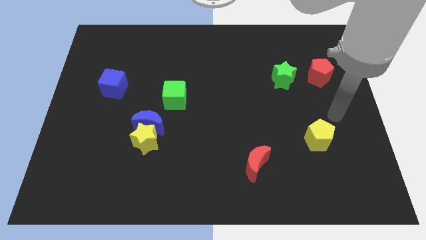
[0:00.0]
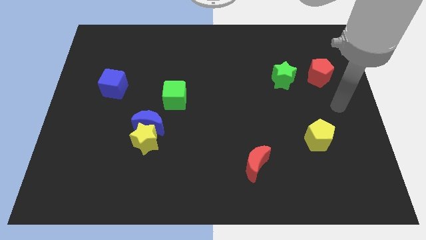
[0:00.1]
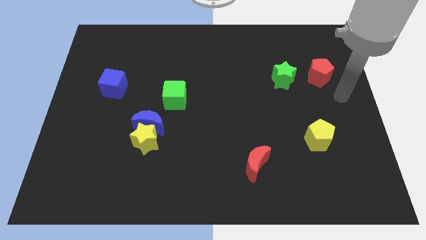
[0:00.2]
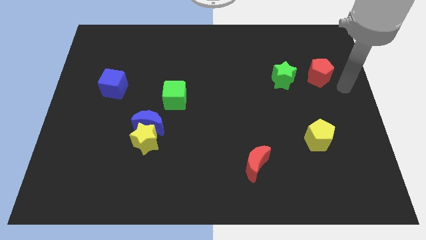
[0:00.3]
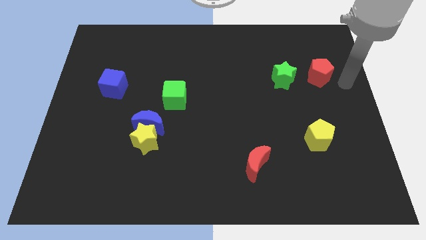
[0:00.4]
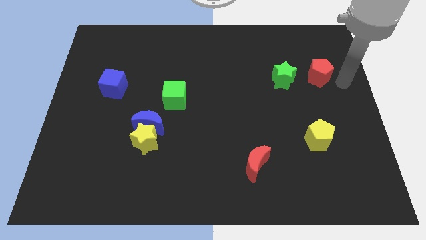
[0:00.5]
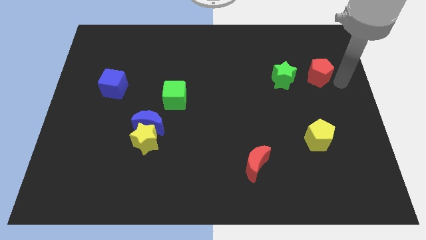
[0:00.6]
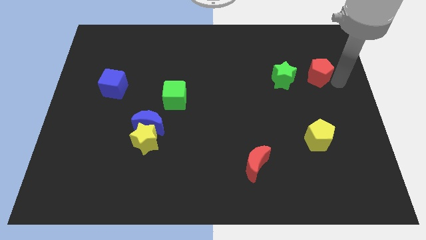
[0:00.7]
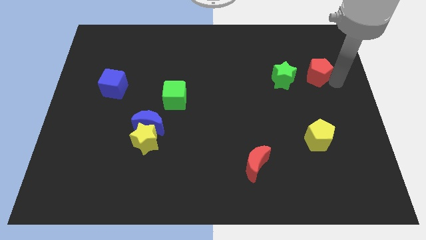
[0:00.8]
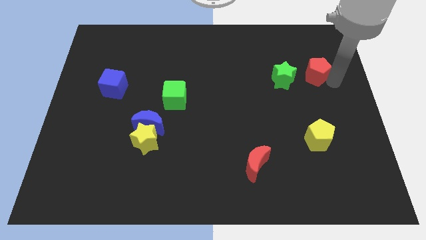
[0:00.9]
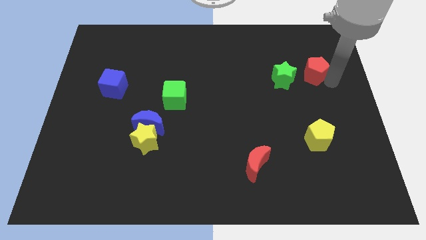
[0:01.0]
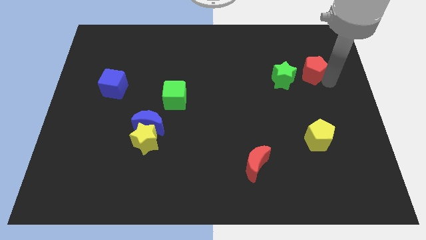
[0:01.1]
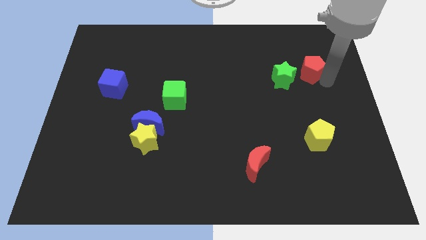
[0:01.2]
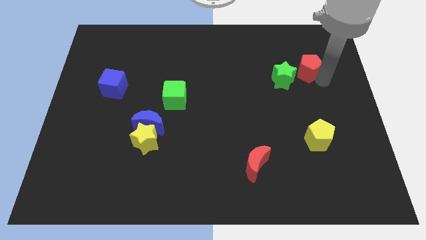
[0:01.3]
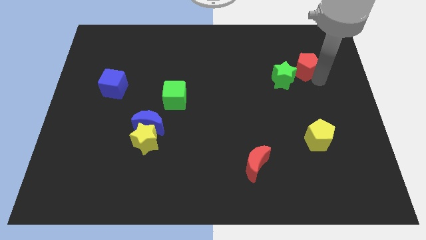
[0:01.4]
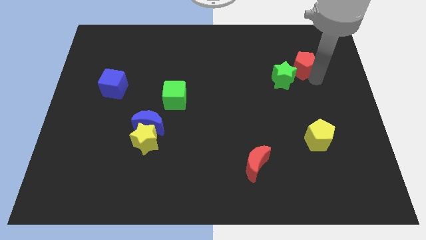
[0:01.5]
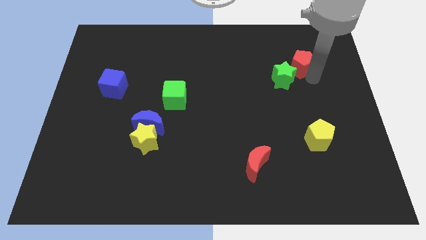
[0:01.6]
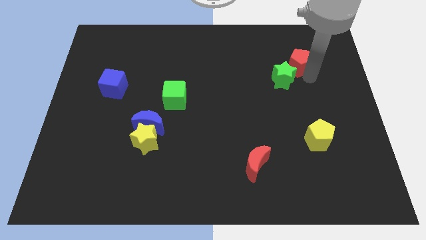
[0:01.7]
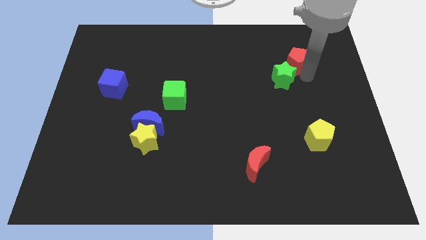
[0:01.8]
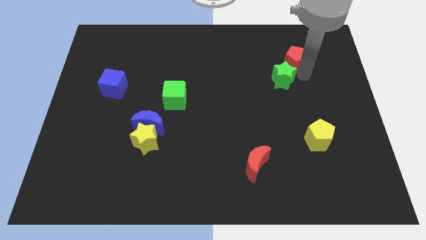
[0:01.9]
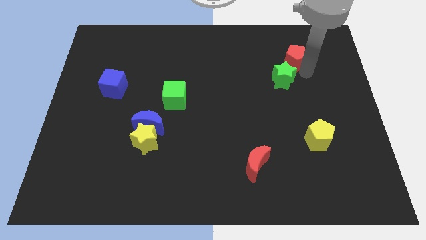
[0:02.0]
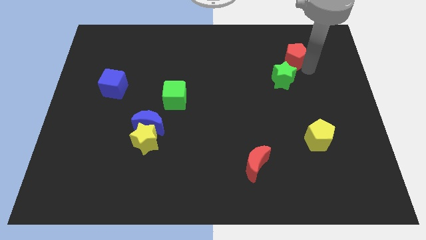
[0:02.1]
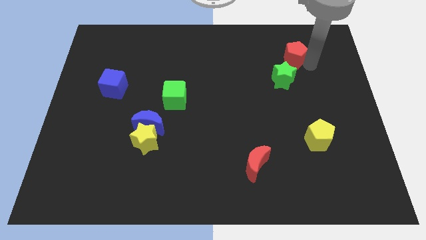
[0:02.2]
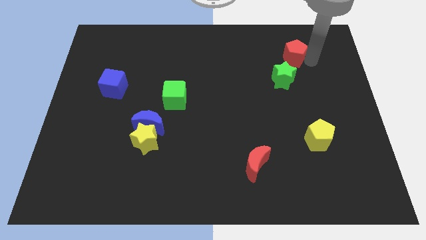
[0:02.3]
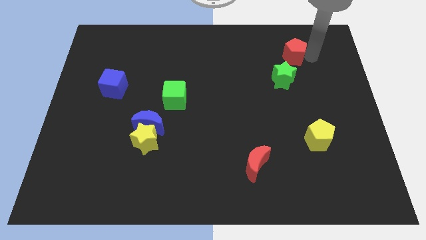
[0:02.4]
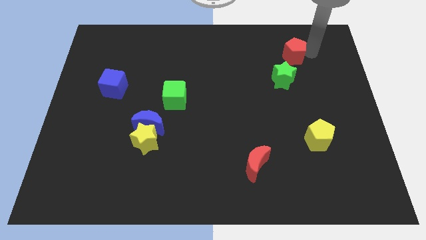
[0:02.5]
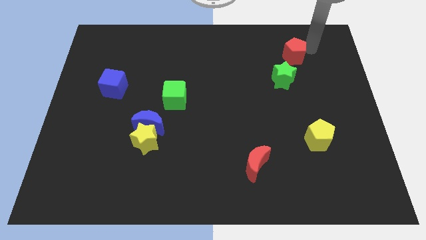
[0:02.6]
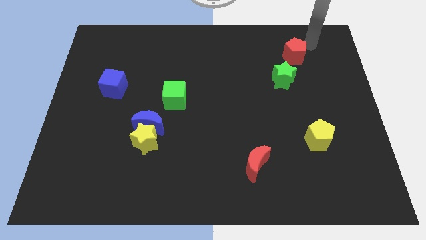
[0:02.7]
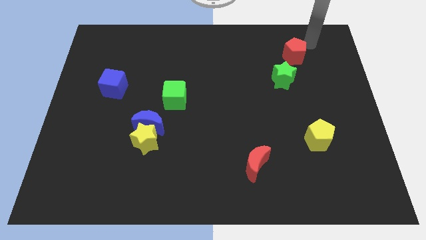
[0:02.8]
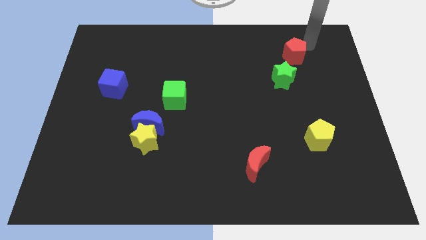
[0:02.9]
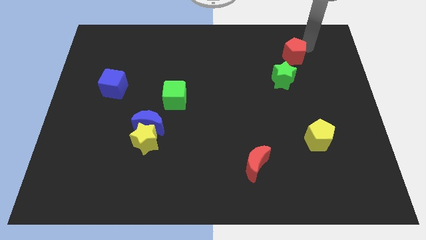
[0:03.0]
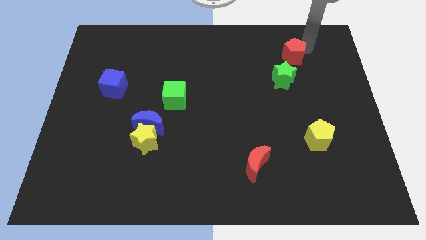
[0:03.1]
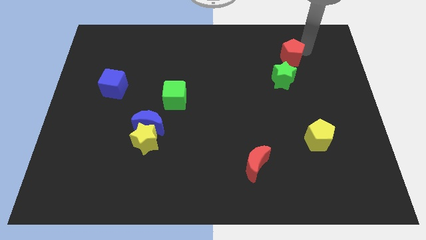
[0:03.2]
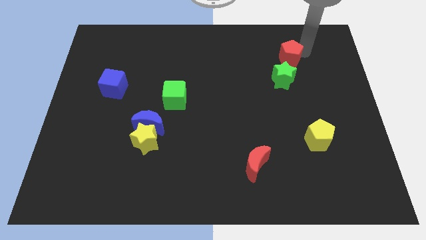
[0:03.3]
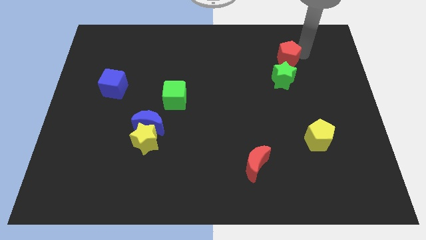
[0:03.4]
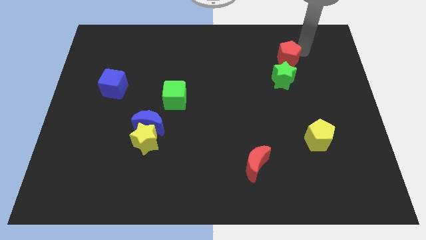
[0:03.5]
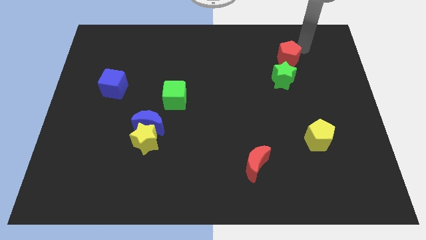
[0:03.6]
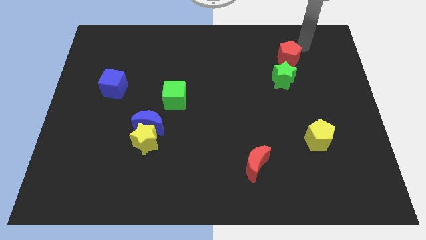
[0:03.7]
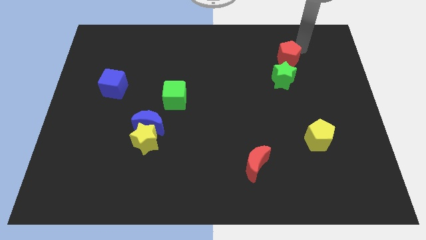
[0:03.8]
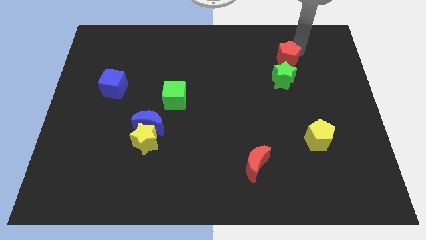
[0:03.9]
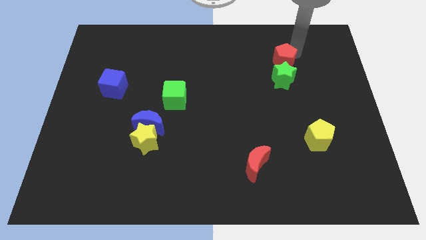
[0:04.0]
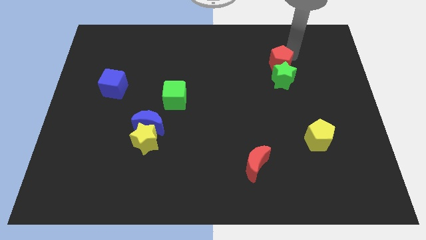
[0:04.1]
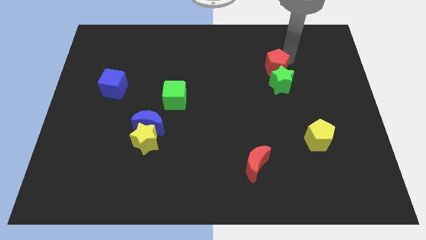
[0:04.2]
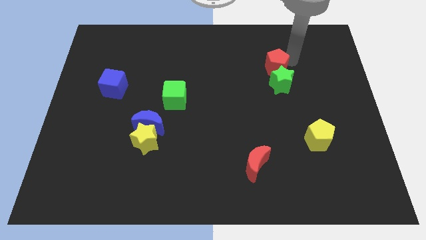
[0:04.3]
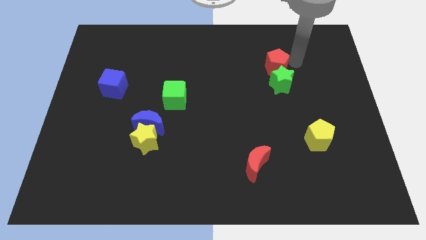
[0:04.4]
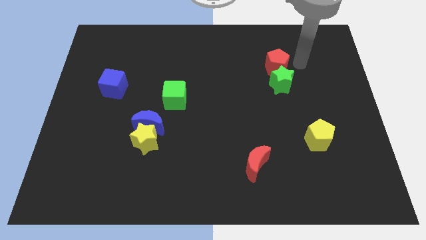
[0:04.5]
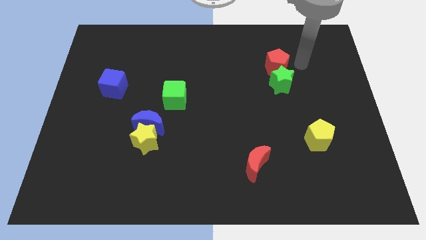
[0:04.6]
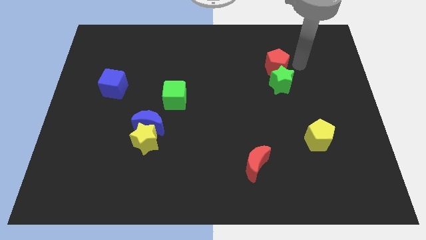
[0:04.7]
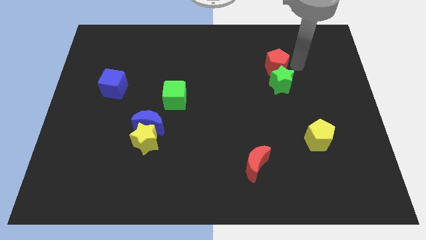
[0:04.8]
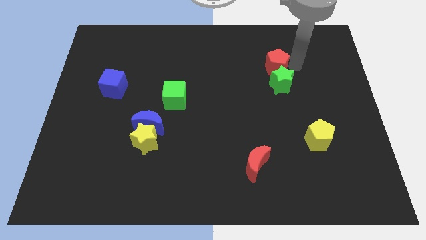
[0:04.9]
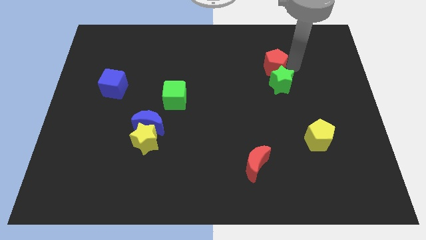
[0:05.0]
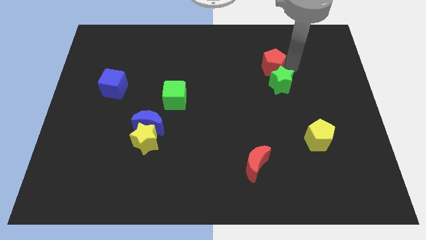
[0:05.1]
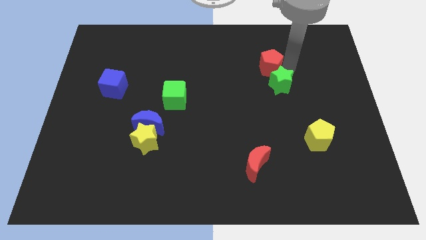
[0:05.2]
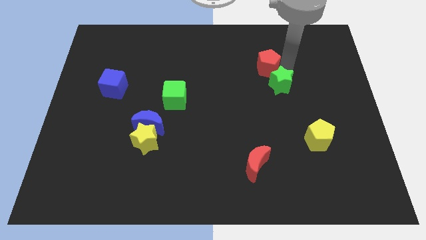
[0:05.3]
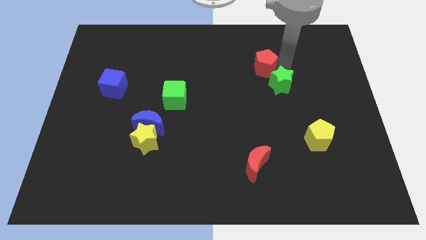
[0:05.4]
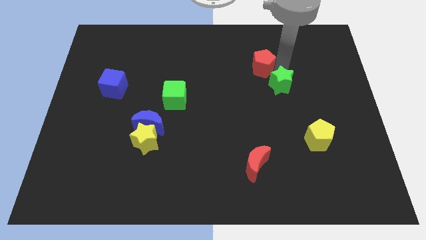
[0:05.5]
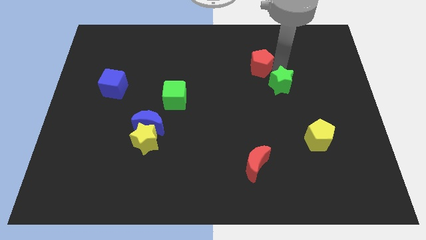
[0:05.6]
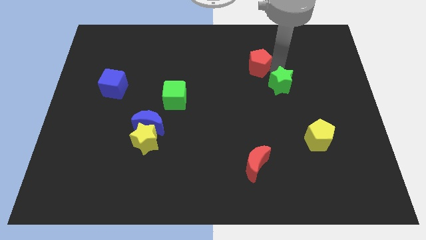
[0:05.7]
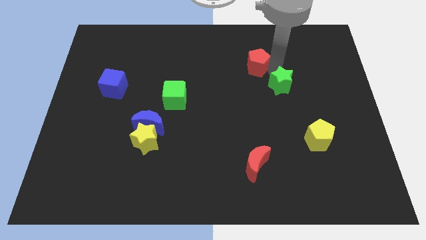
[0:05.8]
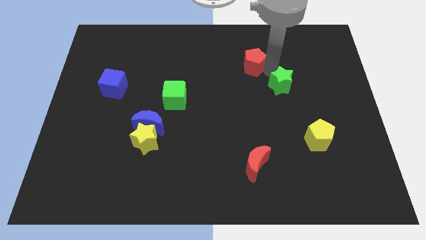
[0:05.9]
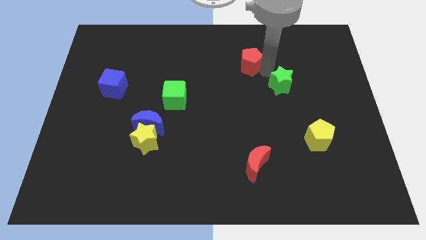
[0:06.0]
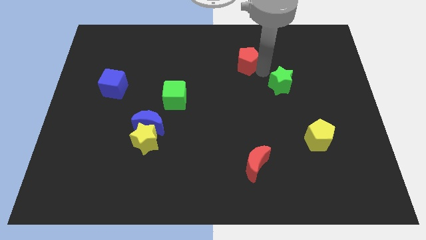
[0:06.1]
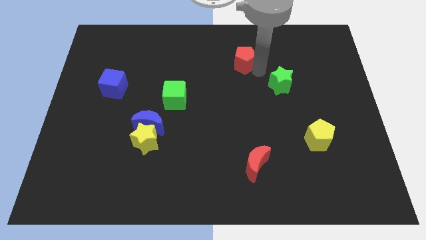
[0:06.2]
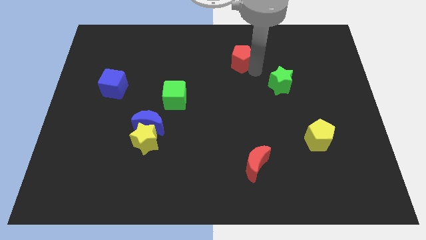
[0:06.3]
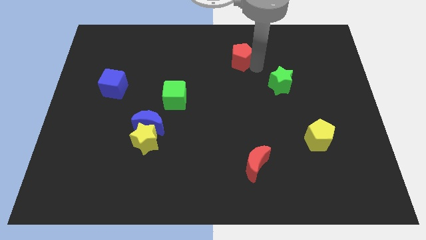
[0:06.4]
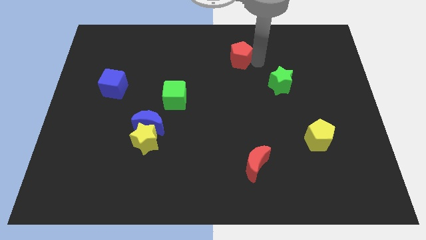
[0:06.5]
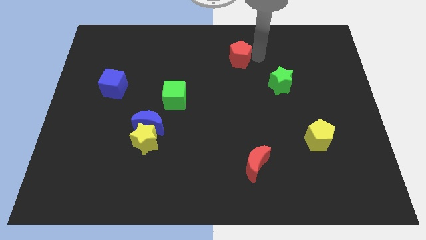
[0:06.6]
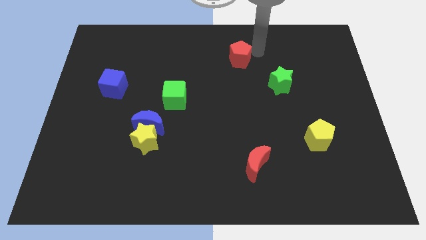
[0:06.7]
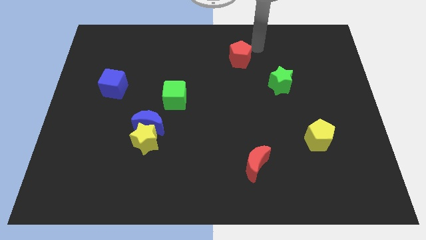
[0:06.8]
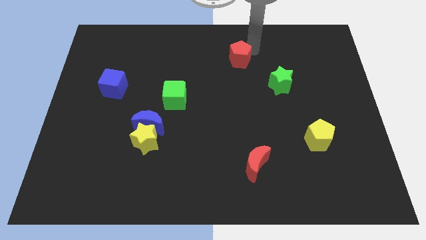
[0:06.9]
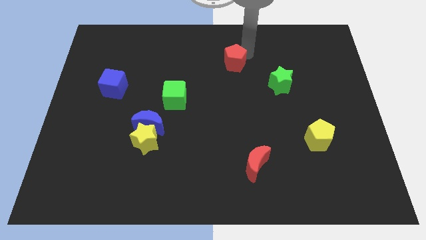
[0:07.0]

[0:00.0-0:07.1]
push the red pentagon left

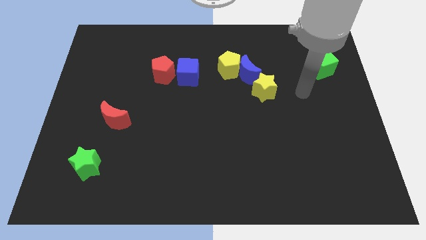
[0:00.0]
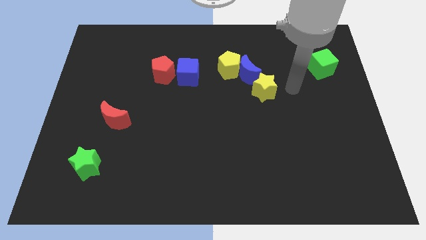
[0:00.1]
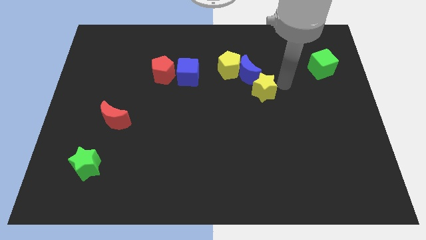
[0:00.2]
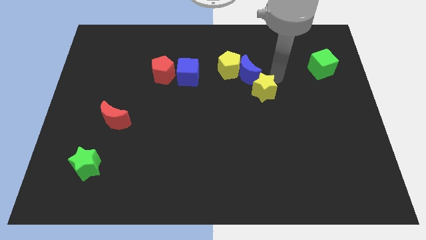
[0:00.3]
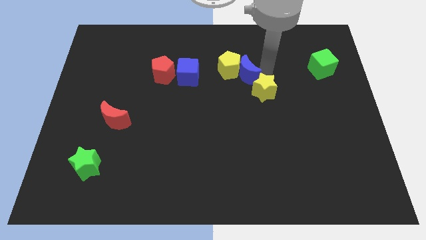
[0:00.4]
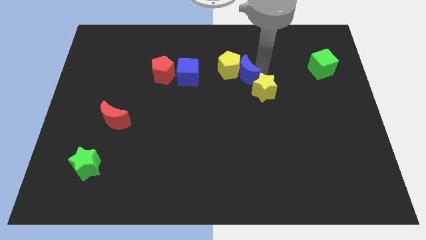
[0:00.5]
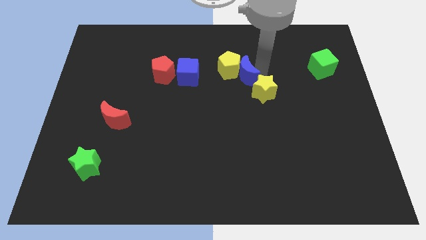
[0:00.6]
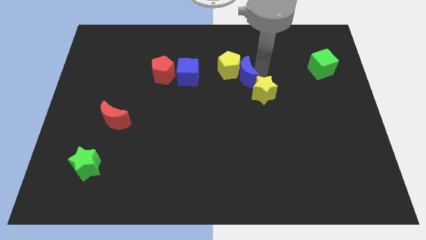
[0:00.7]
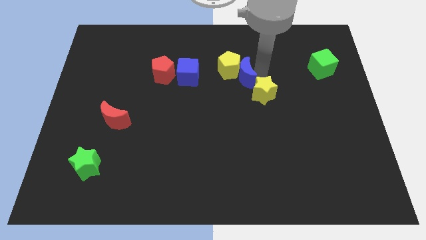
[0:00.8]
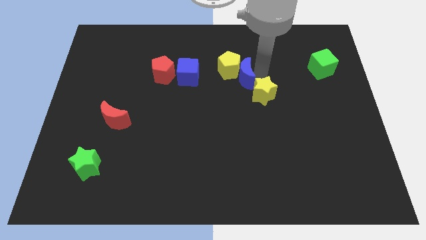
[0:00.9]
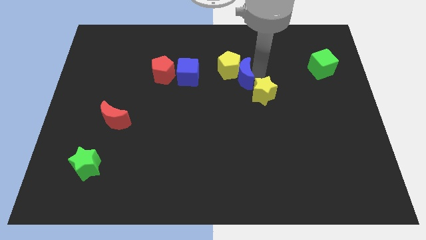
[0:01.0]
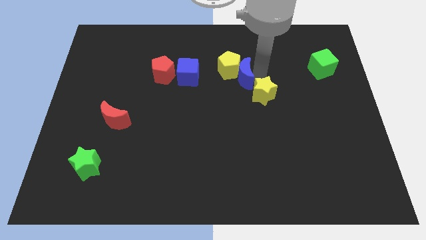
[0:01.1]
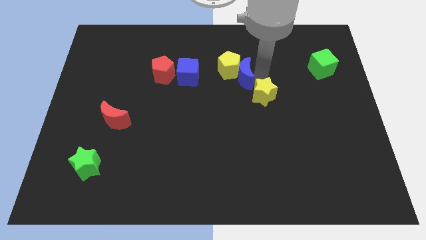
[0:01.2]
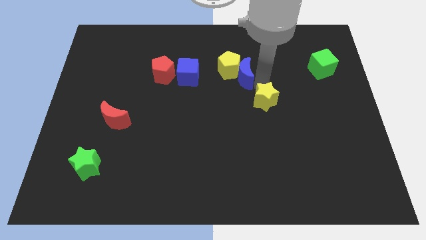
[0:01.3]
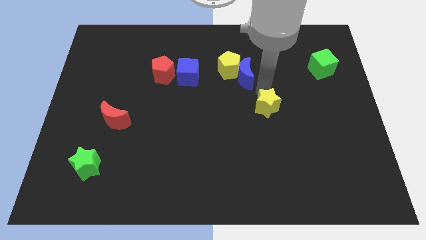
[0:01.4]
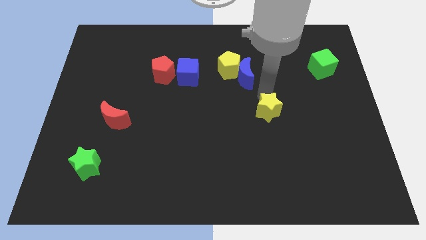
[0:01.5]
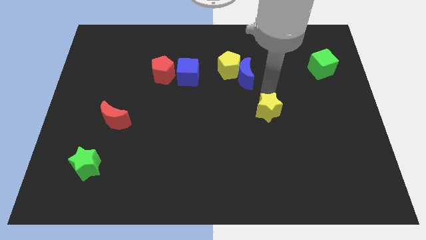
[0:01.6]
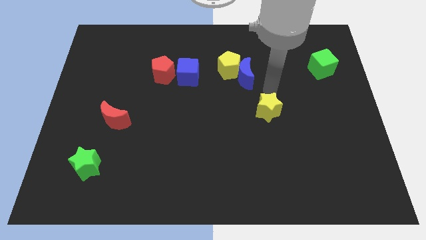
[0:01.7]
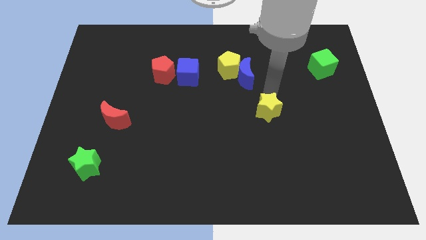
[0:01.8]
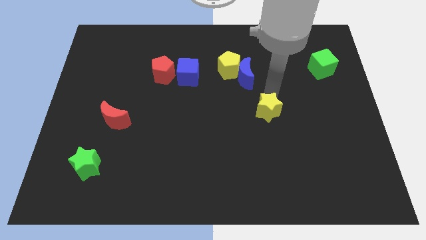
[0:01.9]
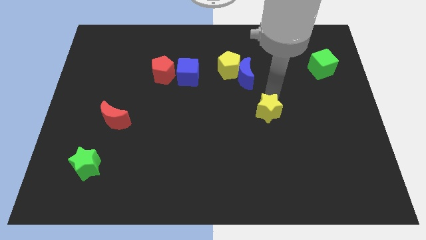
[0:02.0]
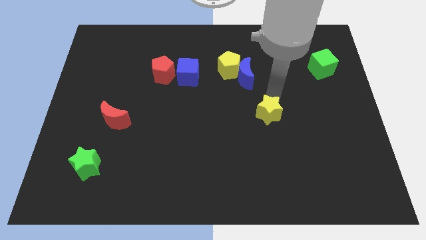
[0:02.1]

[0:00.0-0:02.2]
move the yellow star somewhat down
